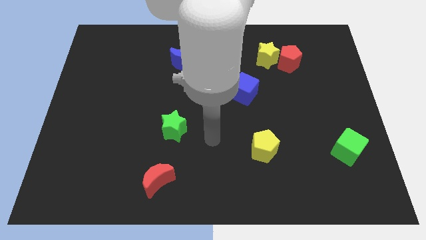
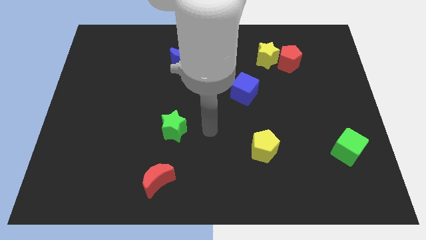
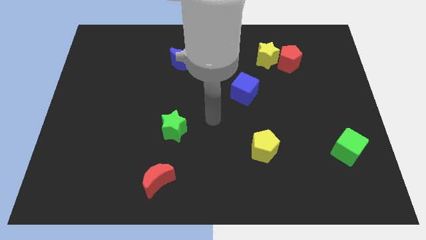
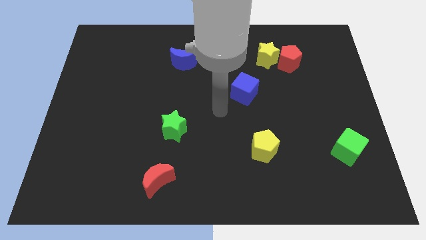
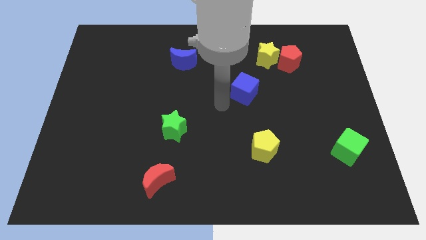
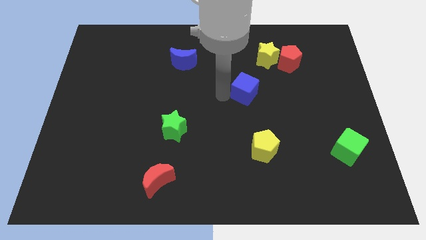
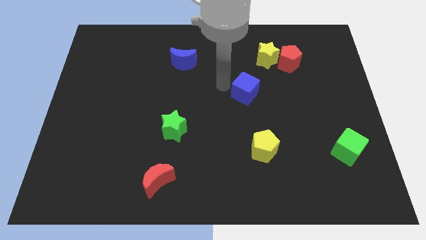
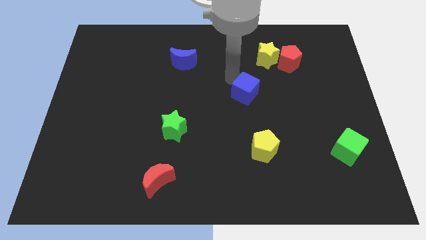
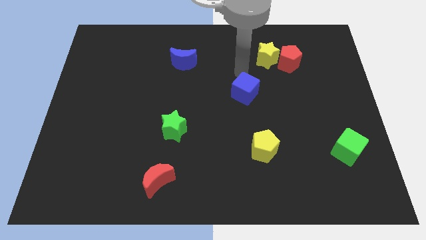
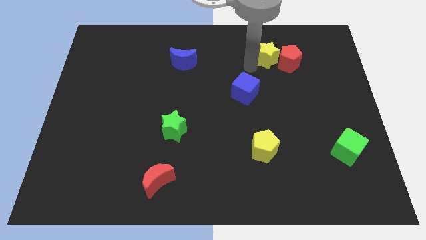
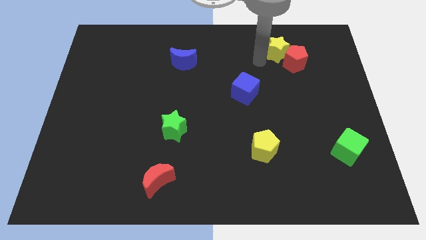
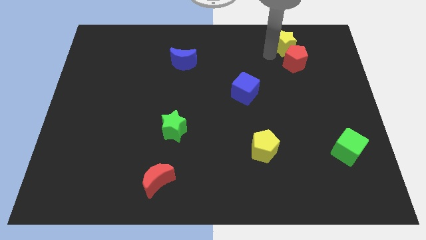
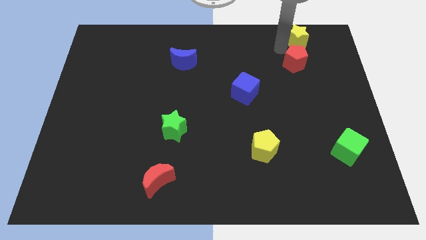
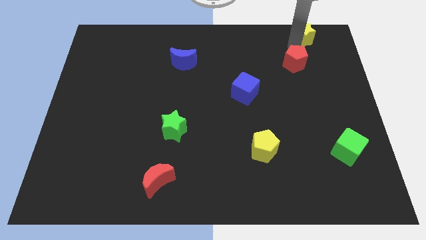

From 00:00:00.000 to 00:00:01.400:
pull the red pentagon apart from the yellow star

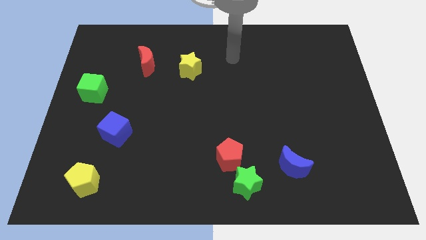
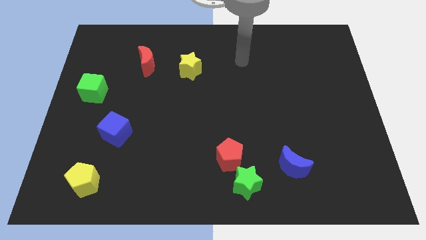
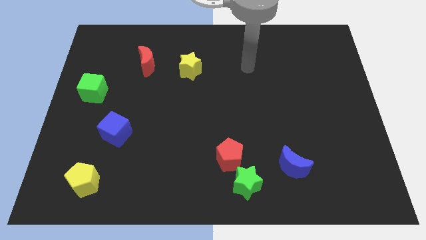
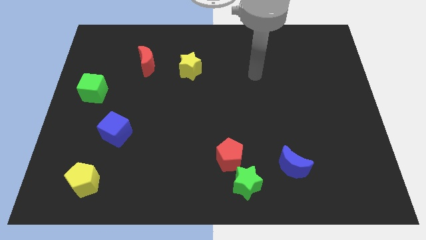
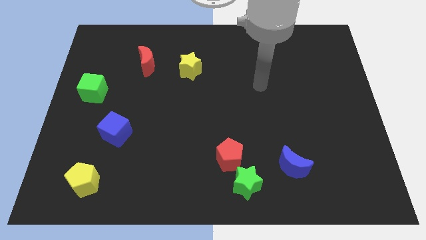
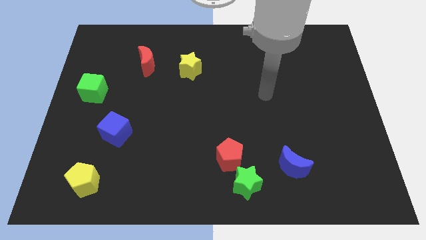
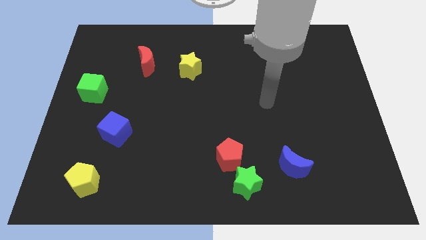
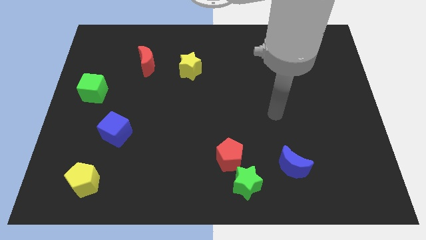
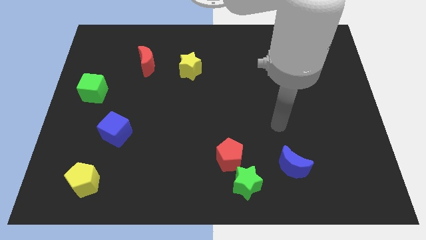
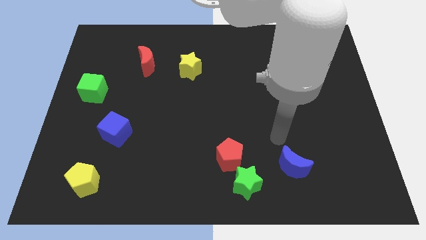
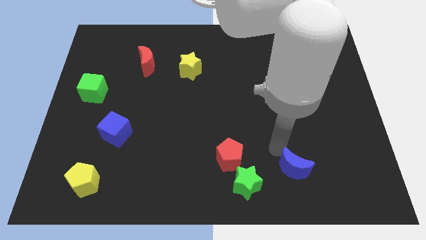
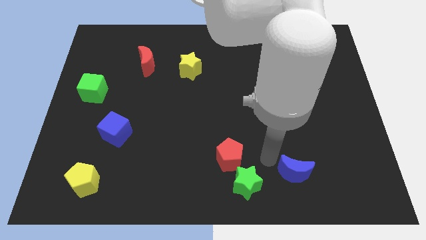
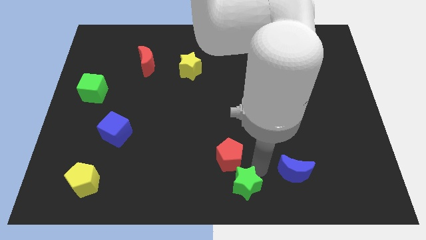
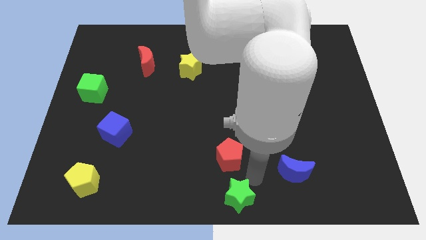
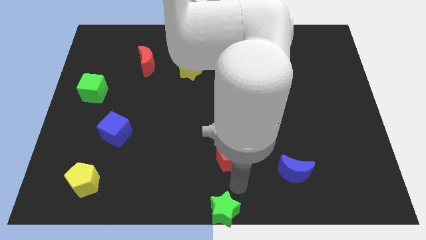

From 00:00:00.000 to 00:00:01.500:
separate the red pentagon from the green star

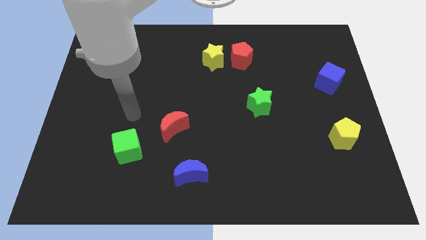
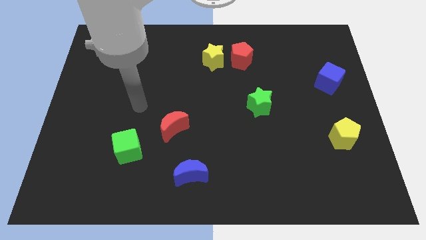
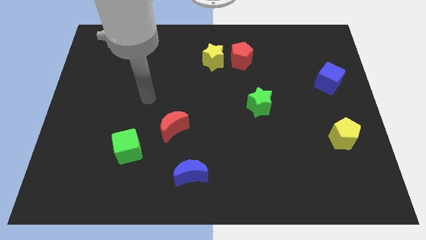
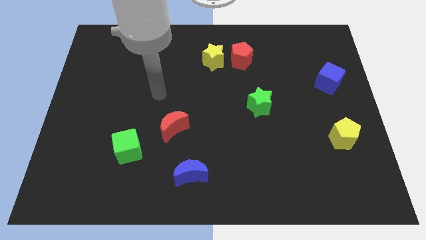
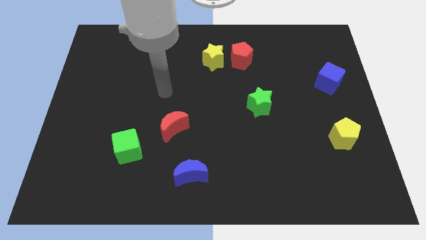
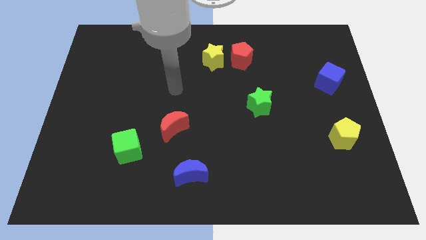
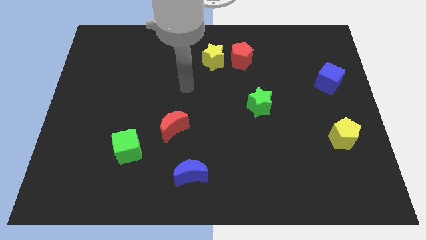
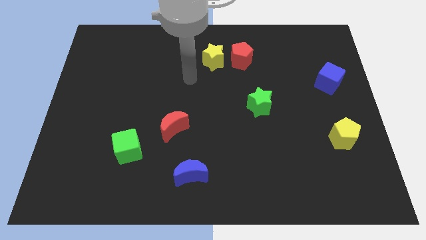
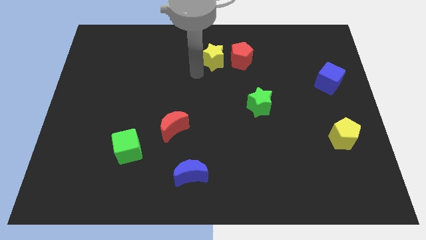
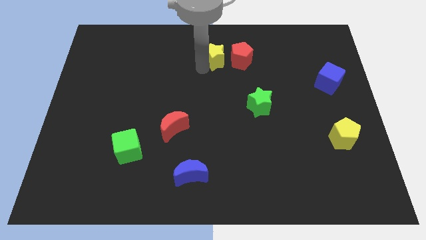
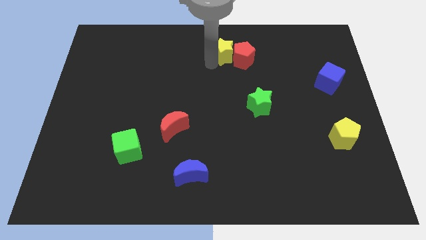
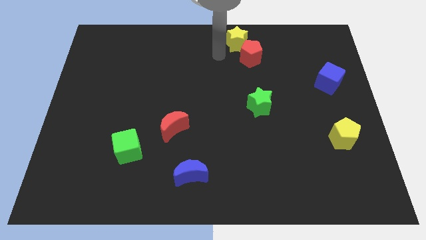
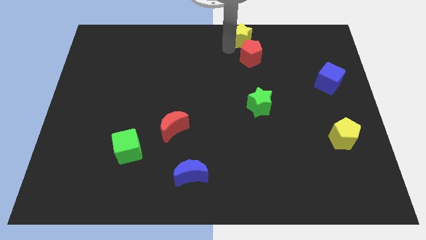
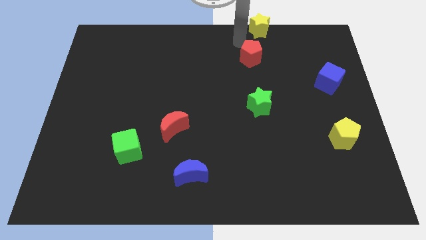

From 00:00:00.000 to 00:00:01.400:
move the red pentagon away from the yellow star

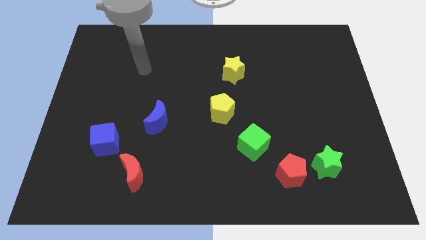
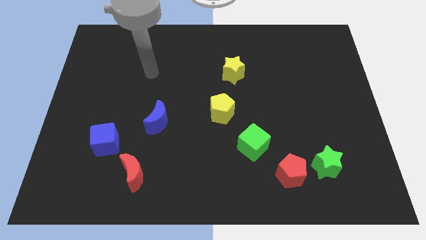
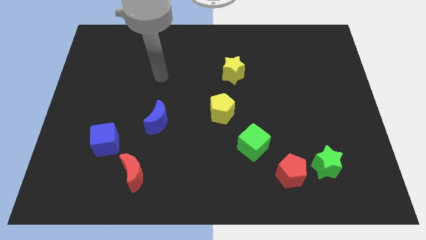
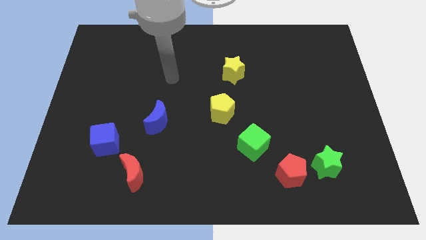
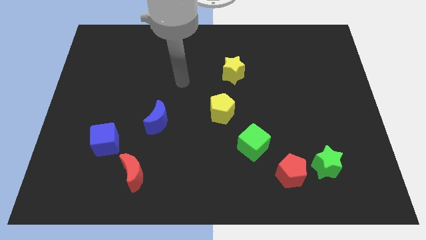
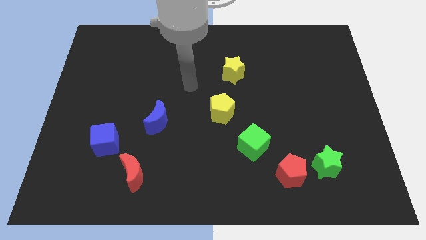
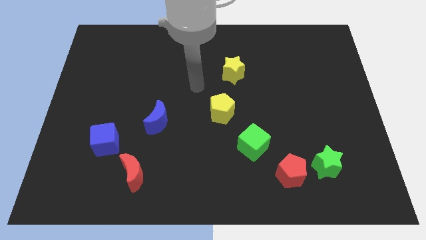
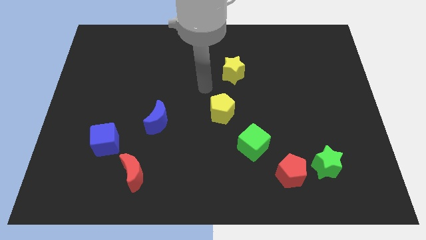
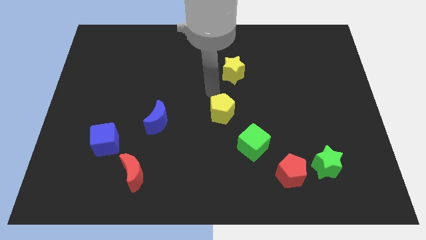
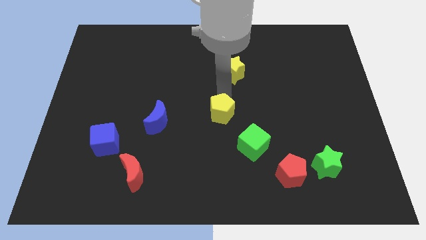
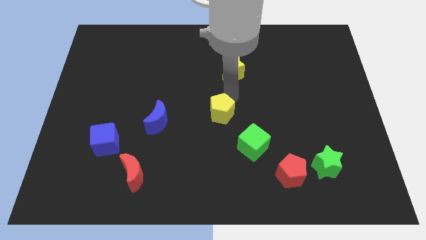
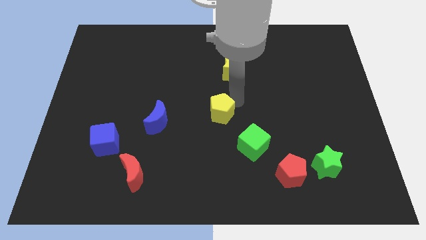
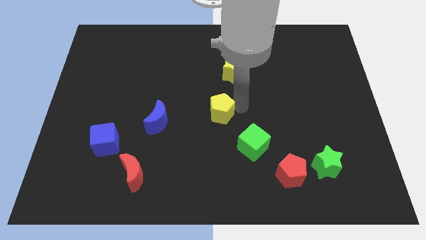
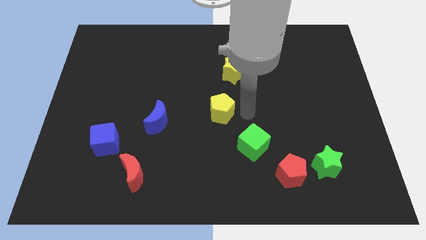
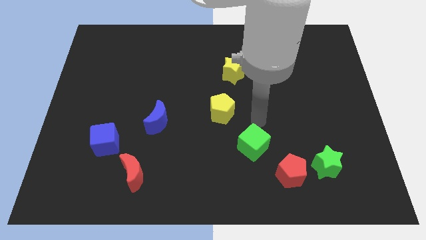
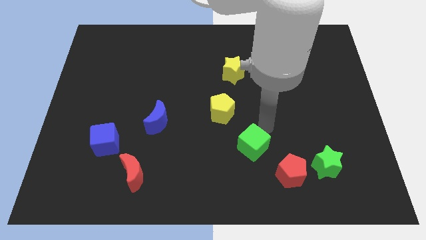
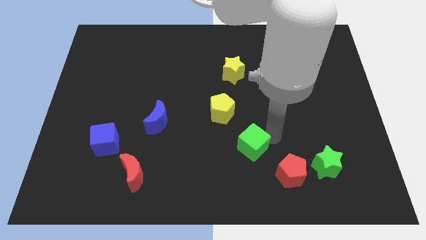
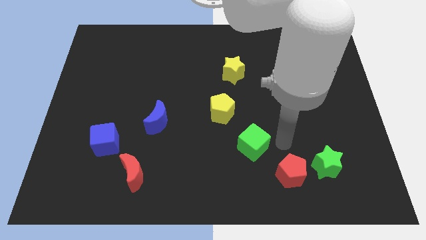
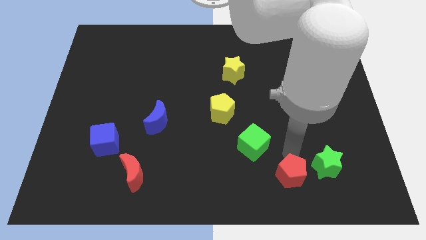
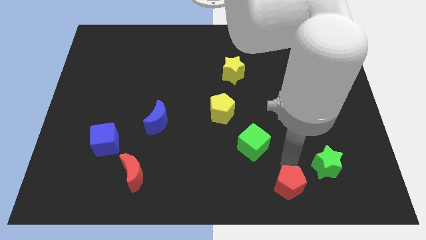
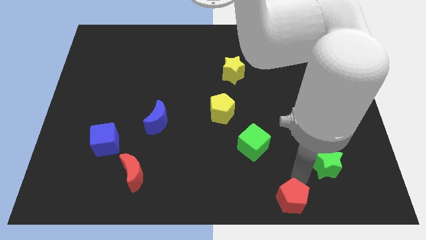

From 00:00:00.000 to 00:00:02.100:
separate the green star from the red pentagon

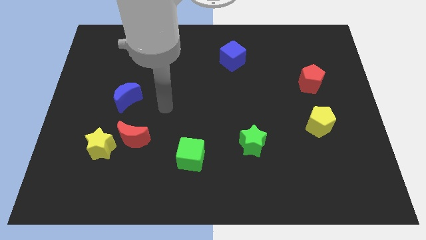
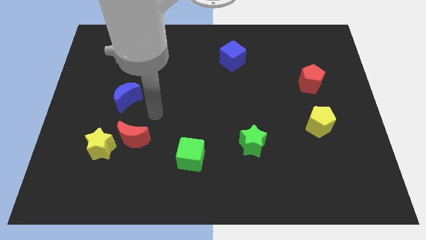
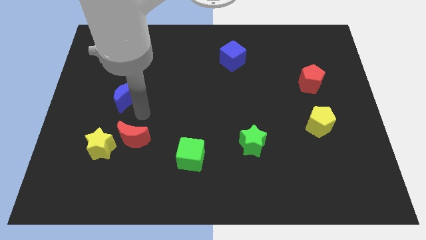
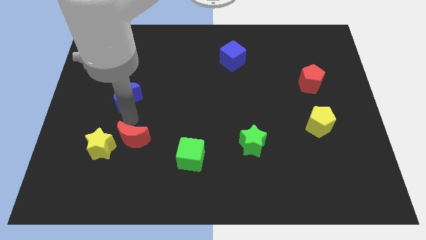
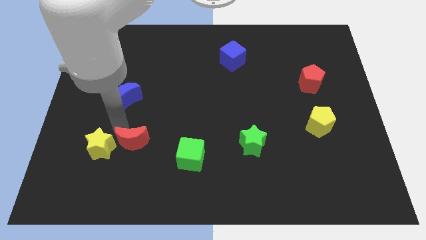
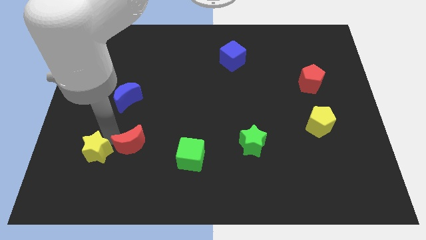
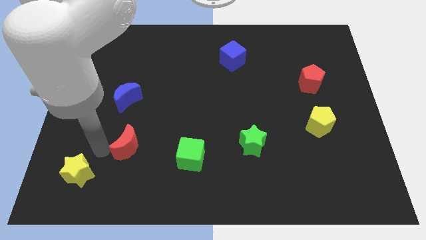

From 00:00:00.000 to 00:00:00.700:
move the red moon away from the yellow star

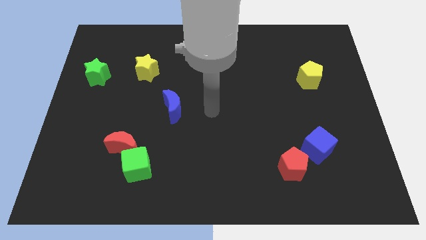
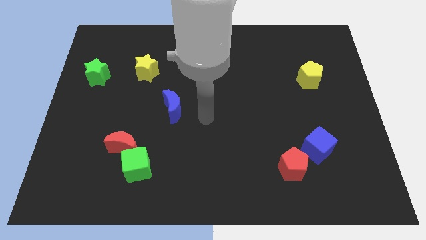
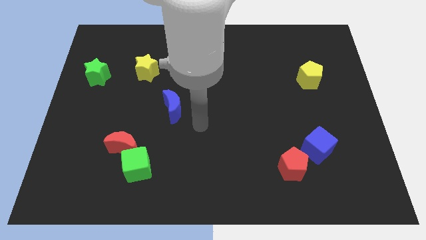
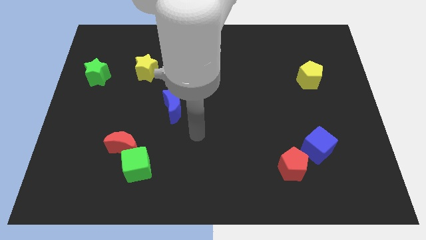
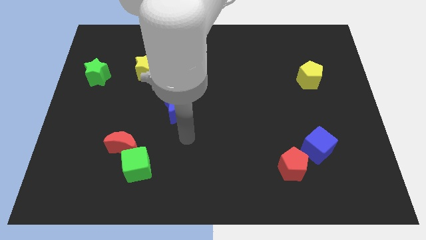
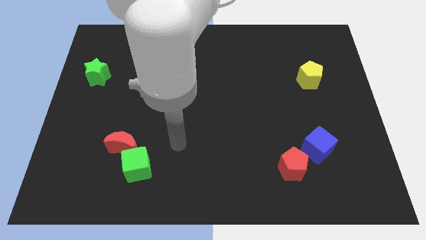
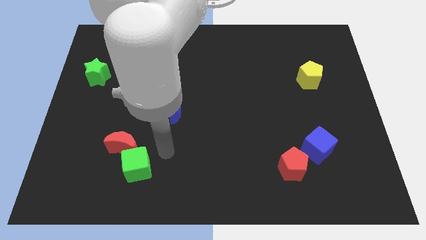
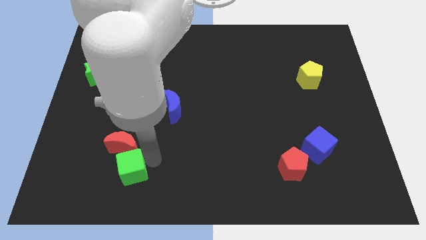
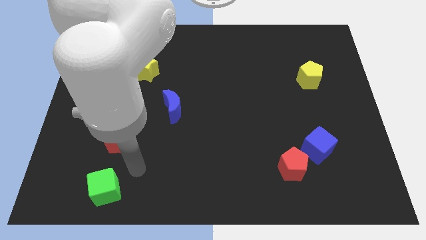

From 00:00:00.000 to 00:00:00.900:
move the red moon away from the green cube

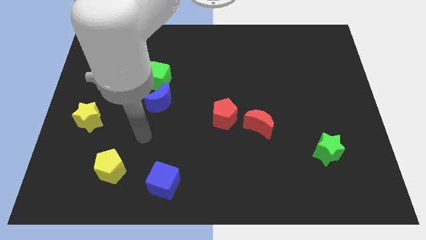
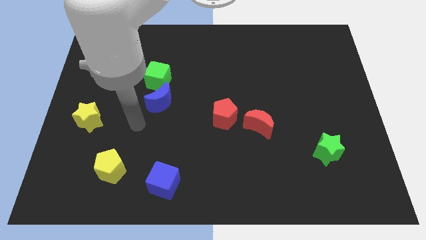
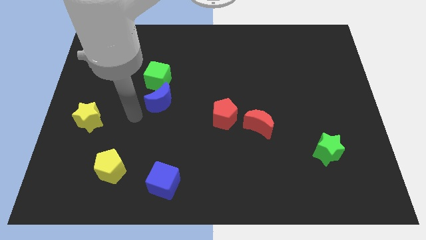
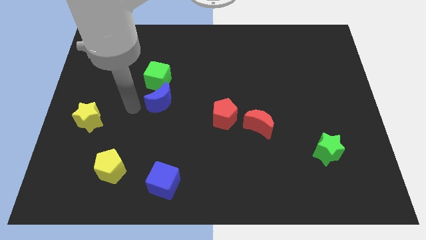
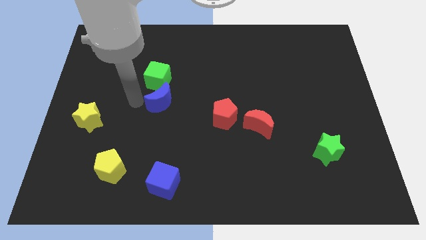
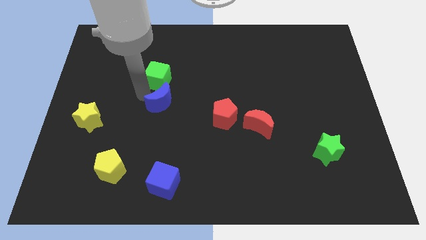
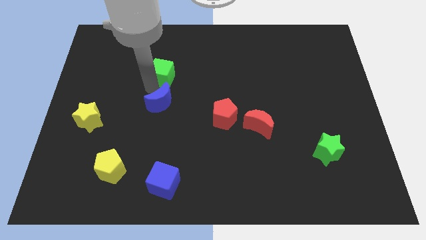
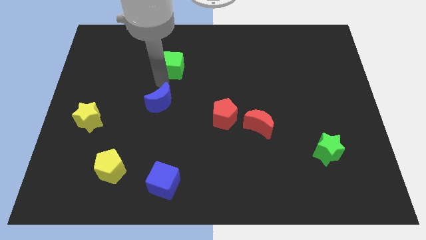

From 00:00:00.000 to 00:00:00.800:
separate the blue moon from the green cube

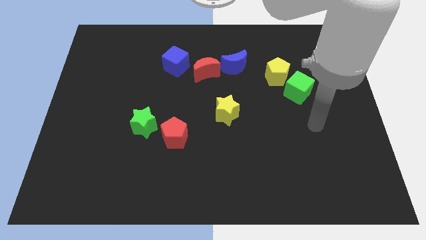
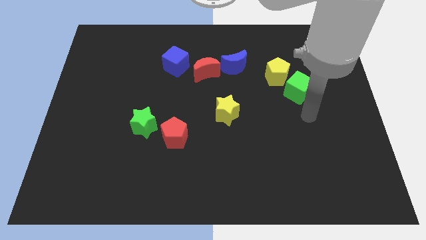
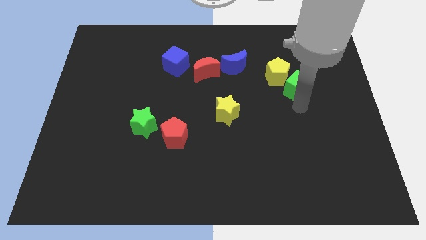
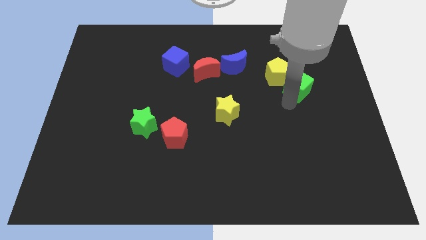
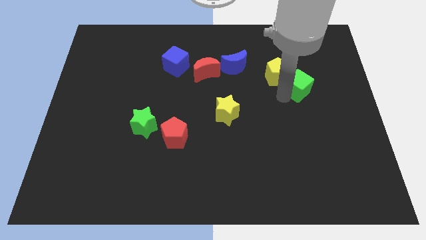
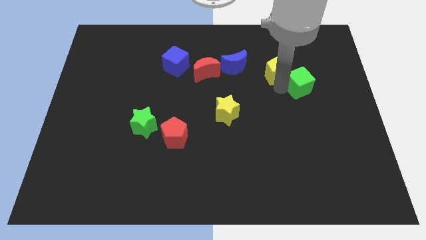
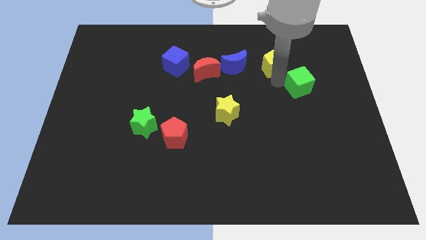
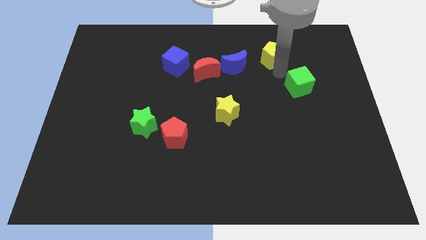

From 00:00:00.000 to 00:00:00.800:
separate the green cube from the yellow pentagon
